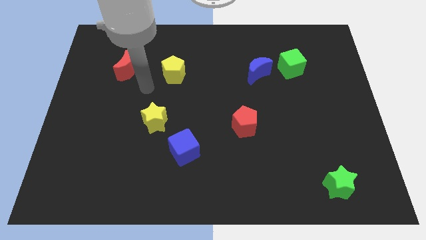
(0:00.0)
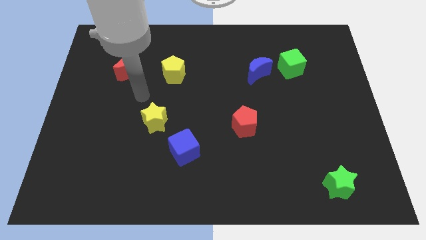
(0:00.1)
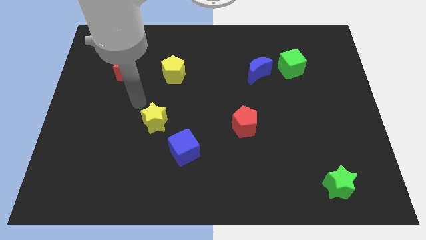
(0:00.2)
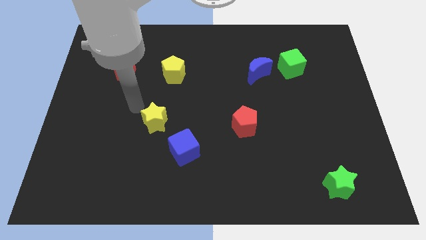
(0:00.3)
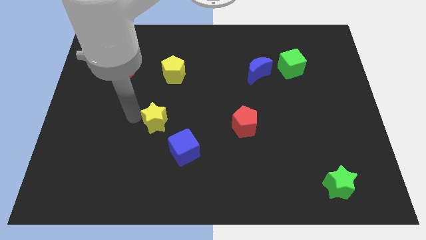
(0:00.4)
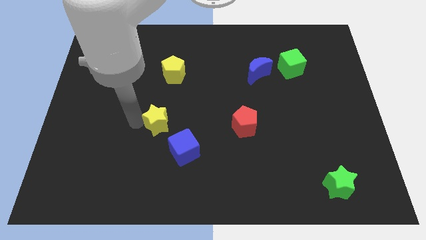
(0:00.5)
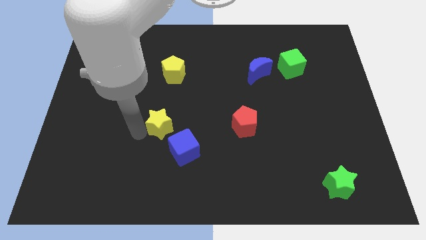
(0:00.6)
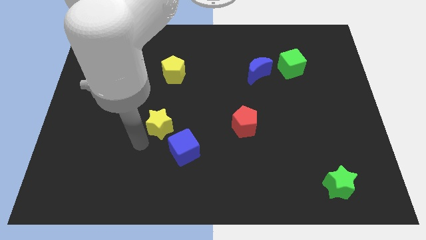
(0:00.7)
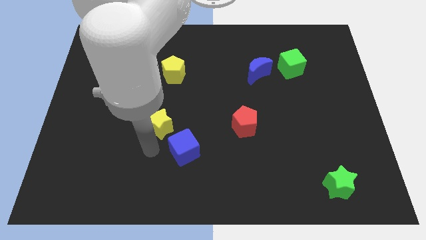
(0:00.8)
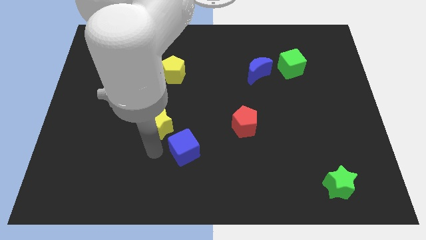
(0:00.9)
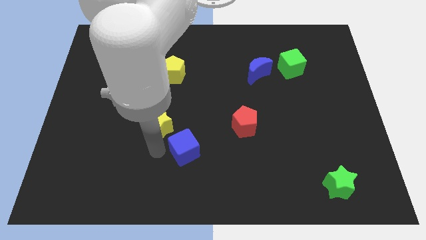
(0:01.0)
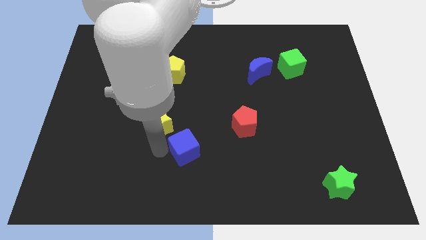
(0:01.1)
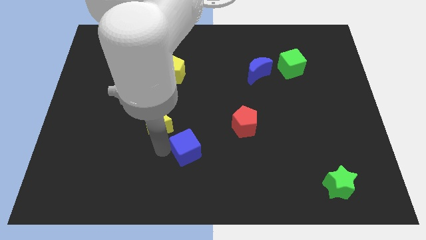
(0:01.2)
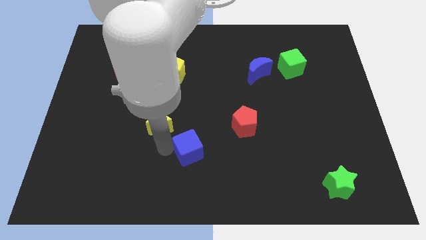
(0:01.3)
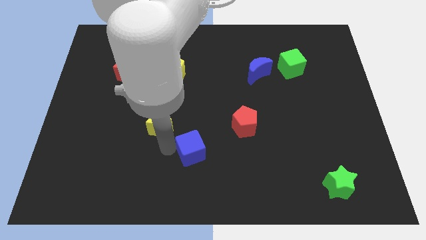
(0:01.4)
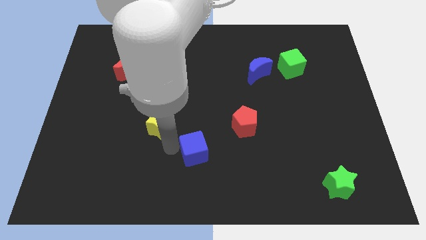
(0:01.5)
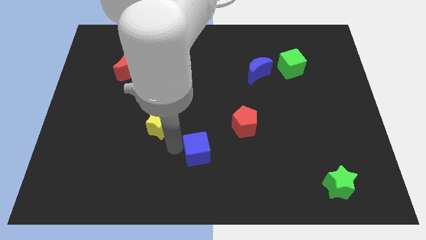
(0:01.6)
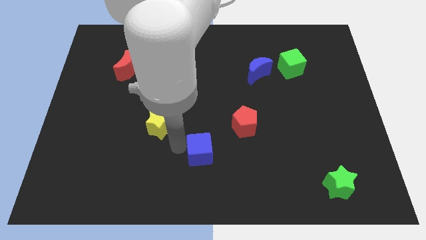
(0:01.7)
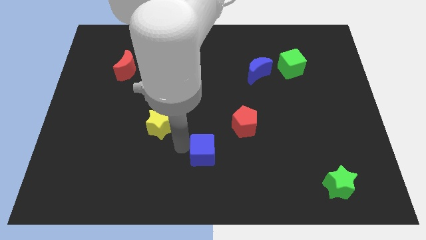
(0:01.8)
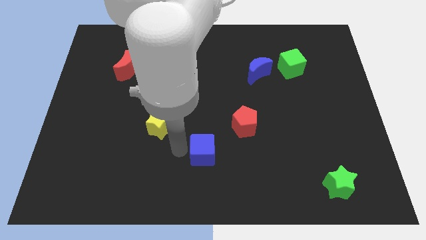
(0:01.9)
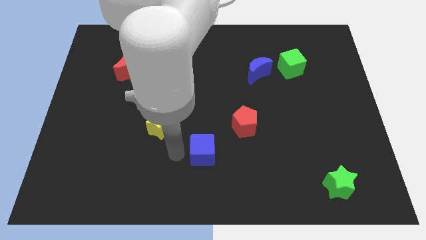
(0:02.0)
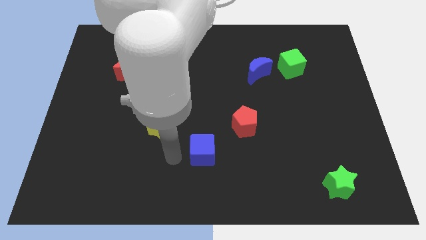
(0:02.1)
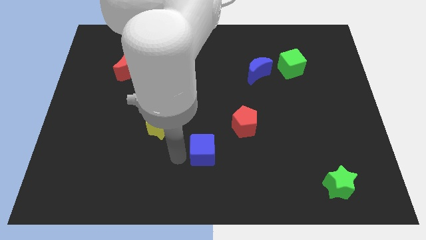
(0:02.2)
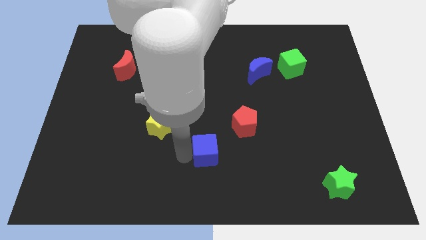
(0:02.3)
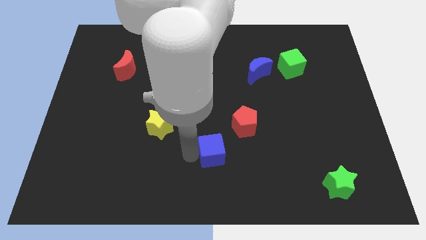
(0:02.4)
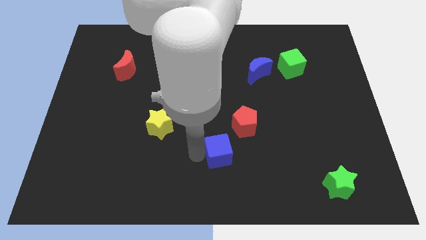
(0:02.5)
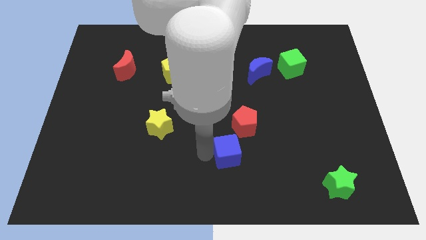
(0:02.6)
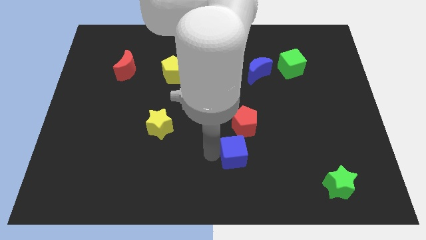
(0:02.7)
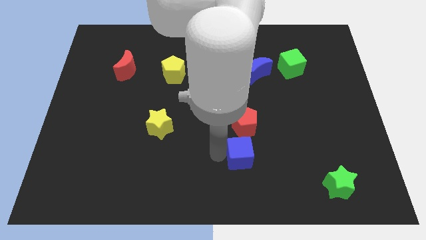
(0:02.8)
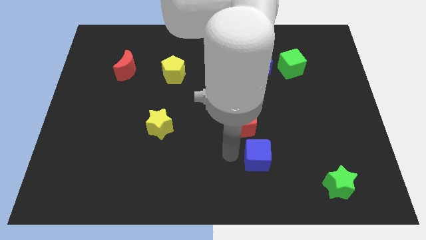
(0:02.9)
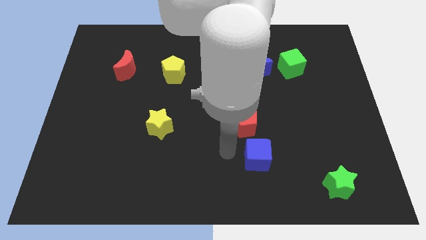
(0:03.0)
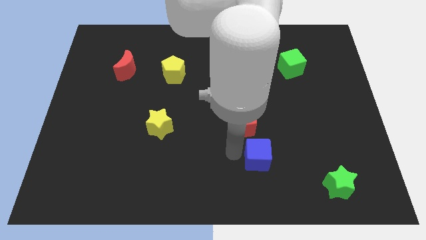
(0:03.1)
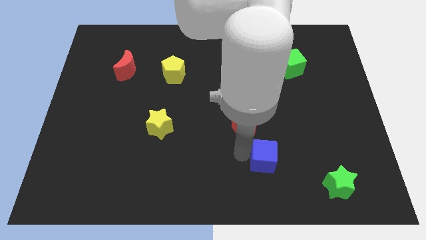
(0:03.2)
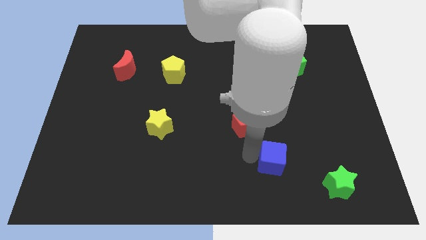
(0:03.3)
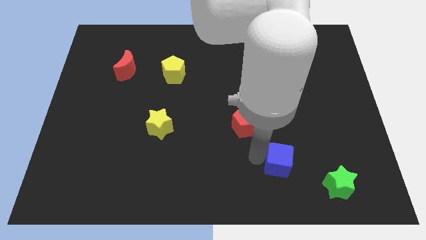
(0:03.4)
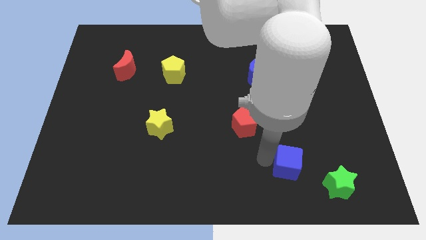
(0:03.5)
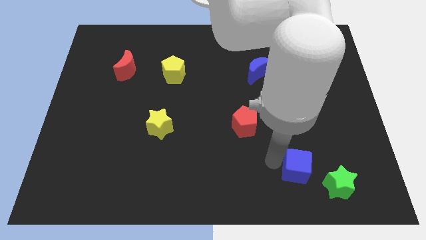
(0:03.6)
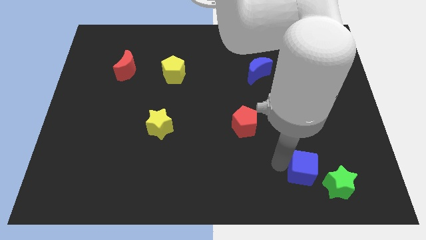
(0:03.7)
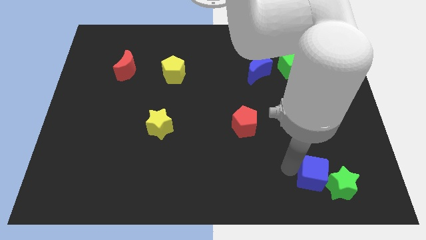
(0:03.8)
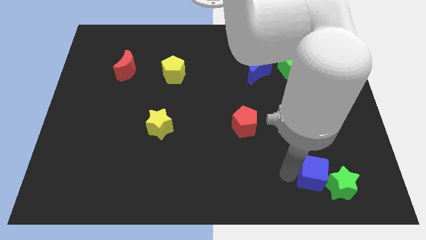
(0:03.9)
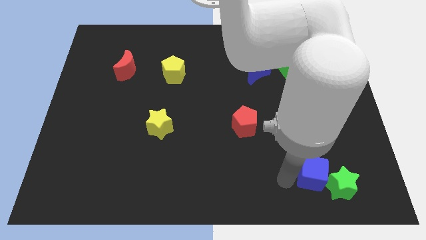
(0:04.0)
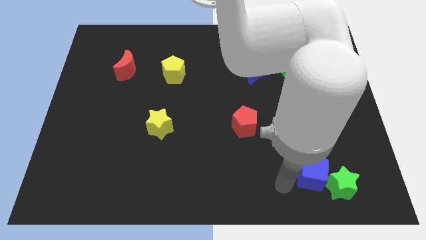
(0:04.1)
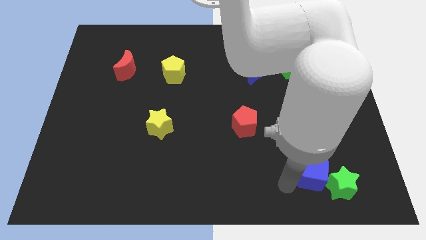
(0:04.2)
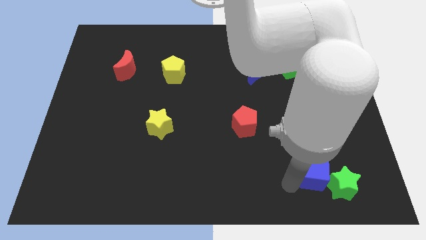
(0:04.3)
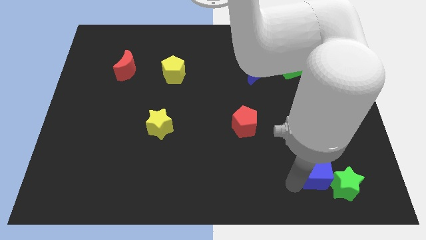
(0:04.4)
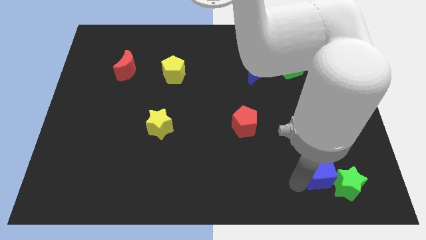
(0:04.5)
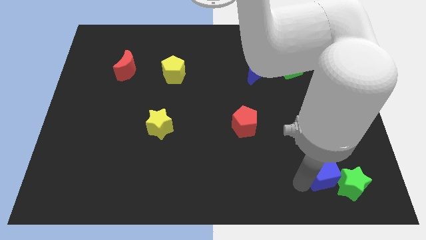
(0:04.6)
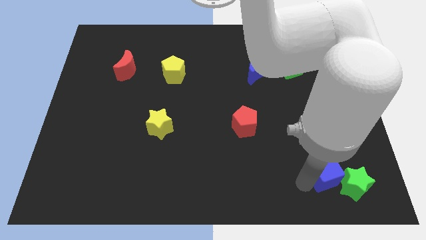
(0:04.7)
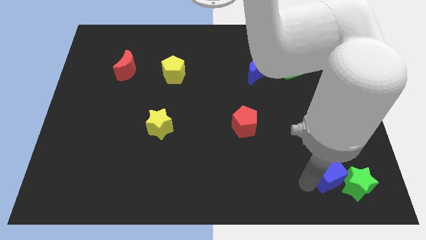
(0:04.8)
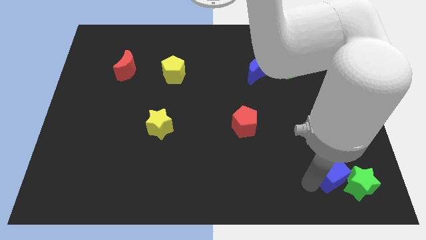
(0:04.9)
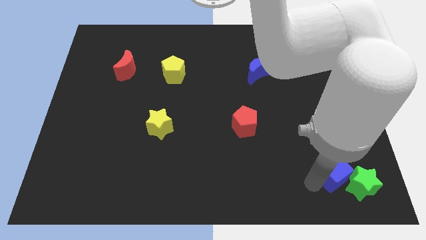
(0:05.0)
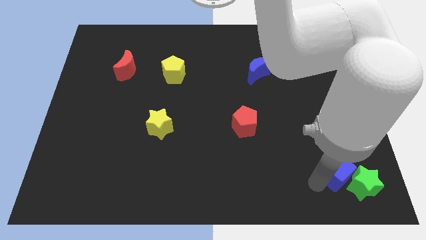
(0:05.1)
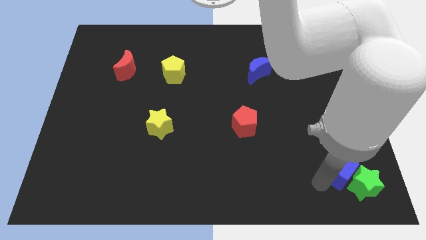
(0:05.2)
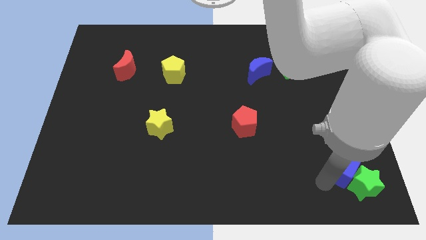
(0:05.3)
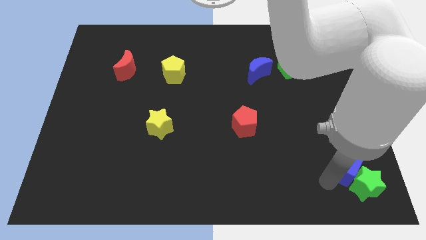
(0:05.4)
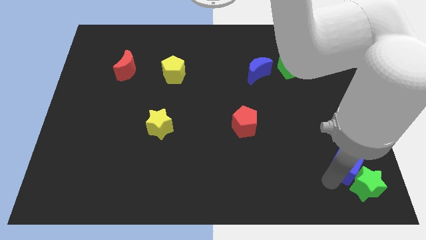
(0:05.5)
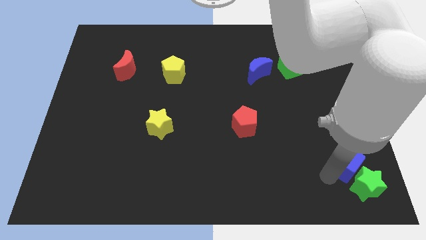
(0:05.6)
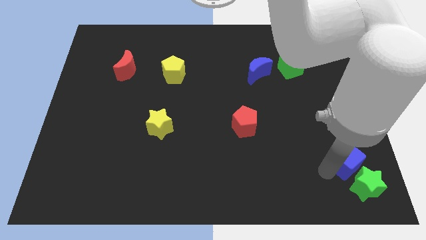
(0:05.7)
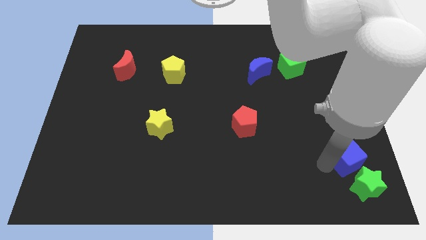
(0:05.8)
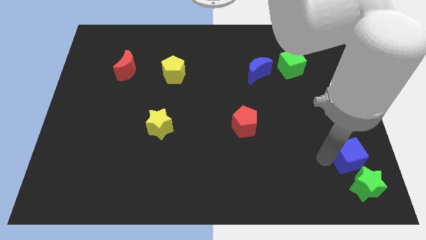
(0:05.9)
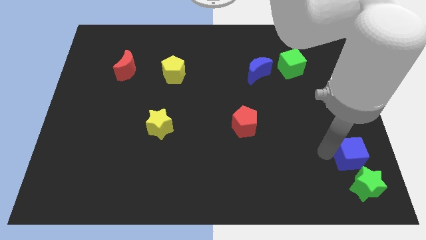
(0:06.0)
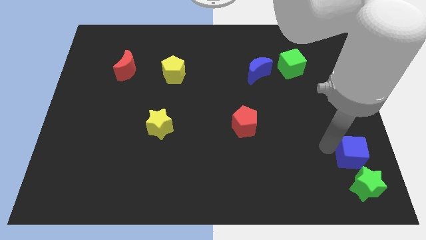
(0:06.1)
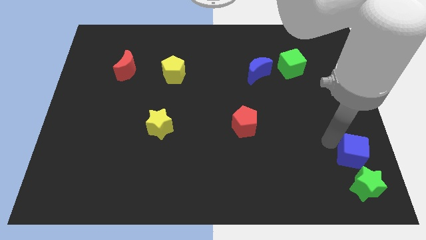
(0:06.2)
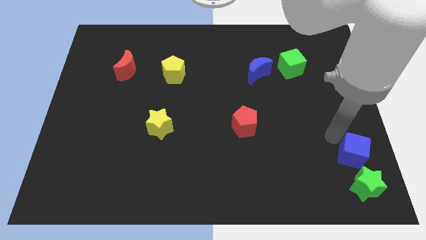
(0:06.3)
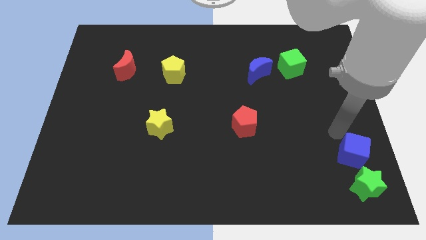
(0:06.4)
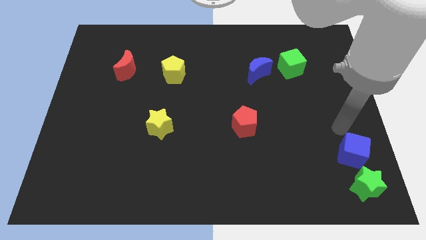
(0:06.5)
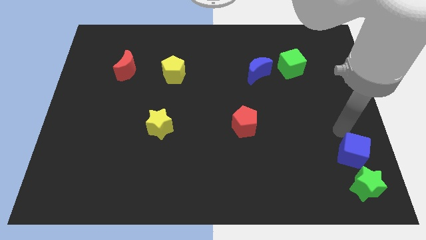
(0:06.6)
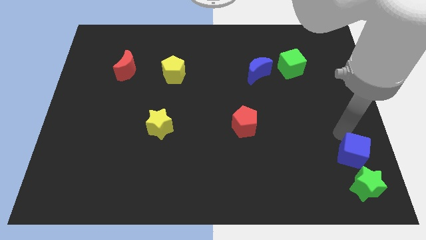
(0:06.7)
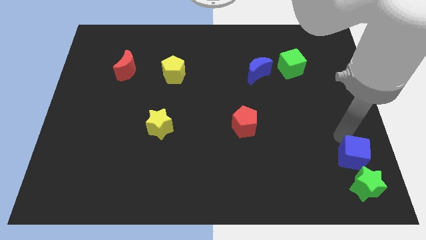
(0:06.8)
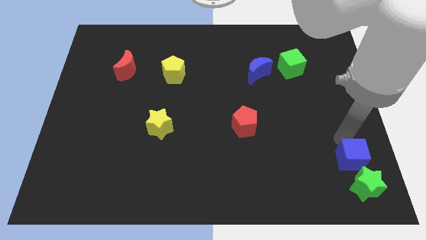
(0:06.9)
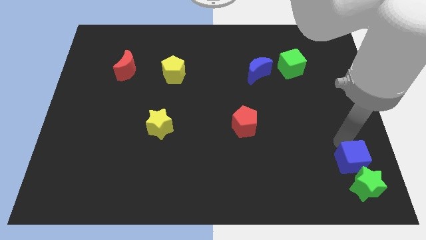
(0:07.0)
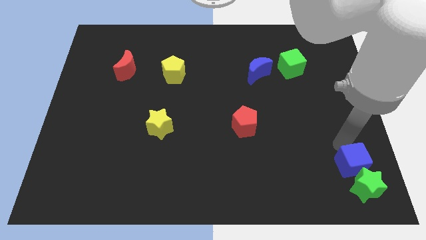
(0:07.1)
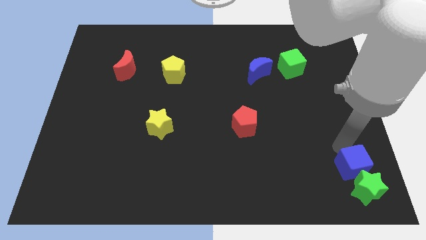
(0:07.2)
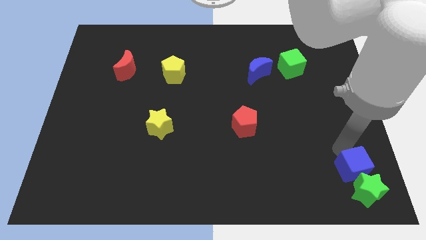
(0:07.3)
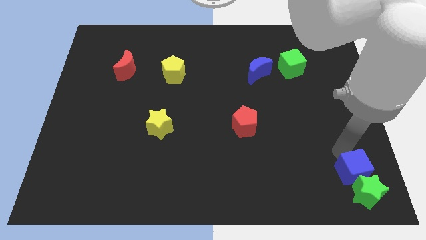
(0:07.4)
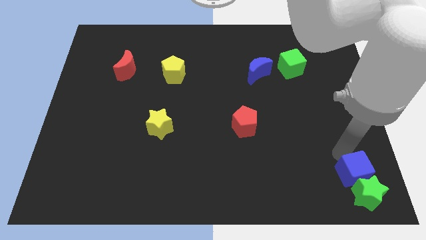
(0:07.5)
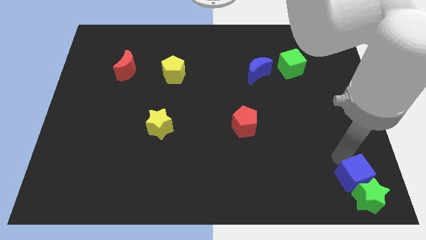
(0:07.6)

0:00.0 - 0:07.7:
put the blue cube to the bottom right corner
